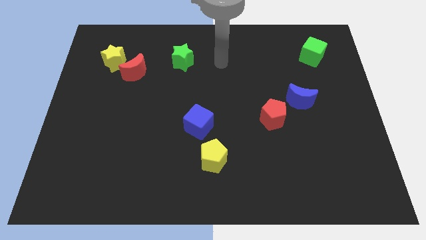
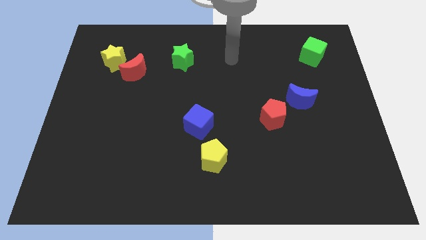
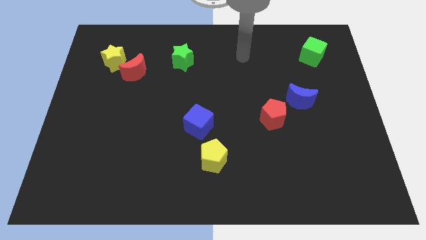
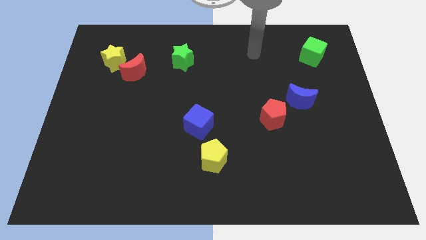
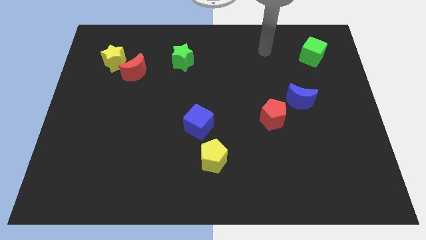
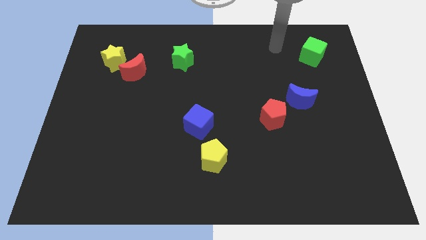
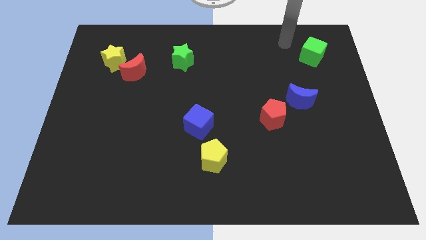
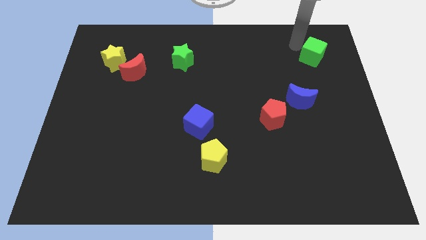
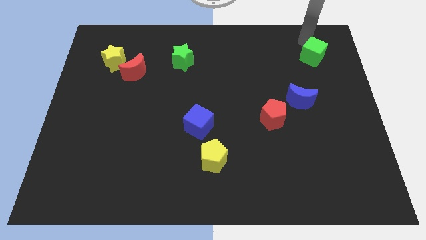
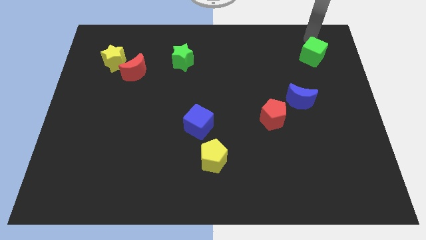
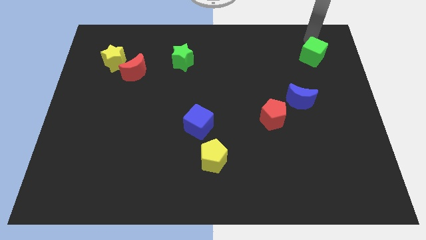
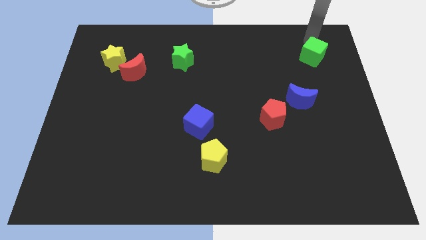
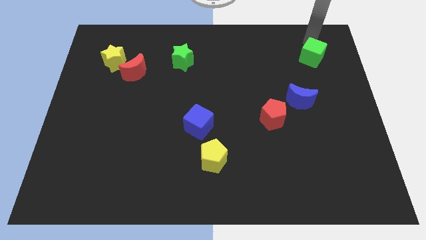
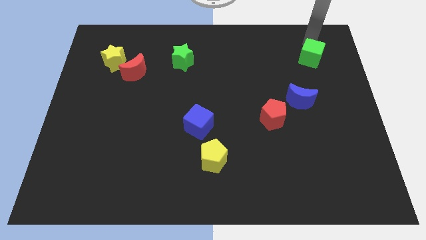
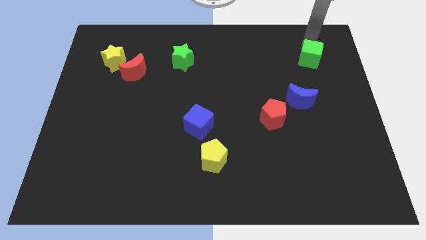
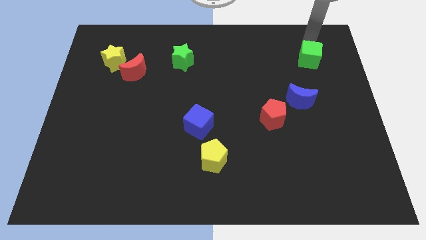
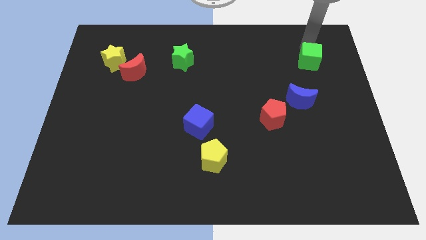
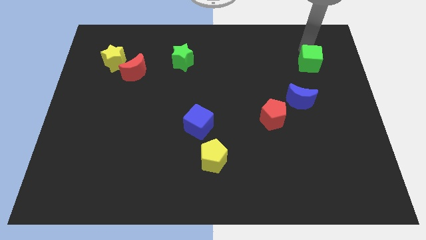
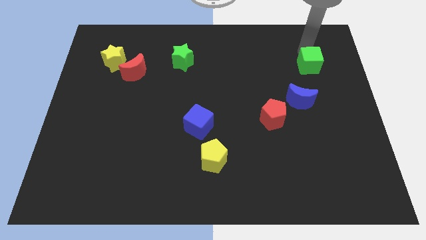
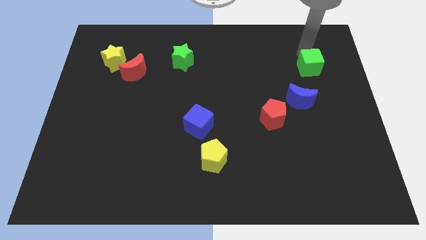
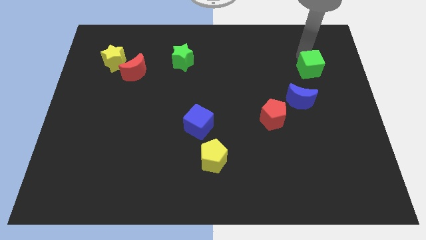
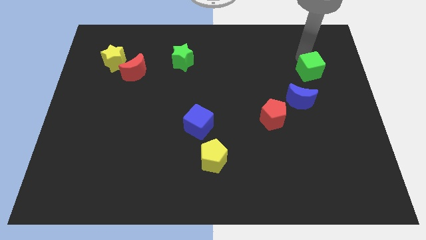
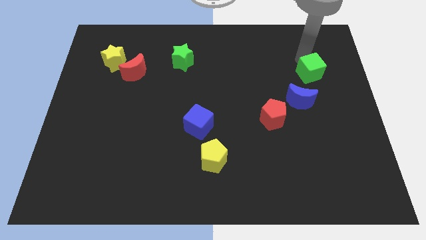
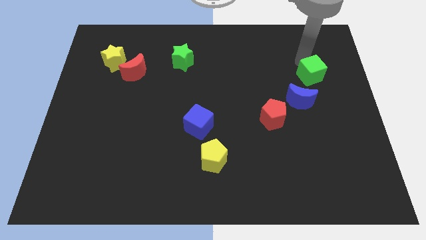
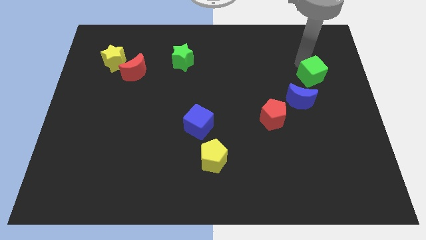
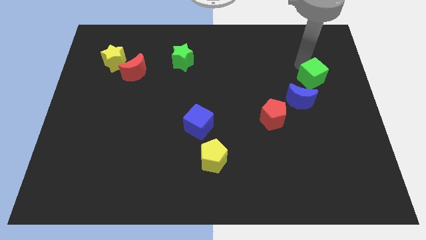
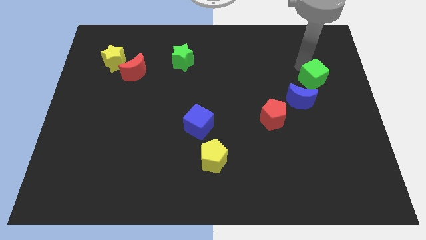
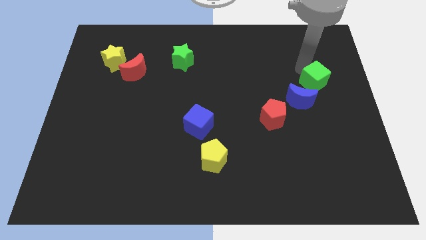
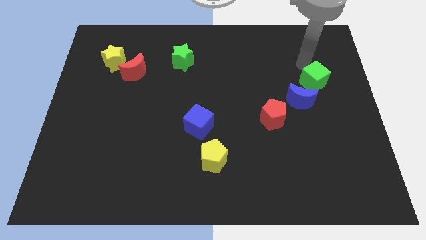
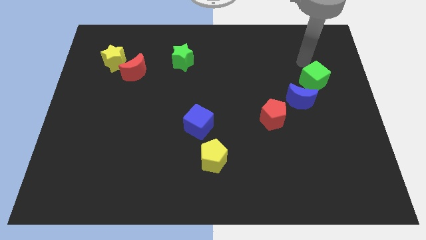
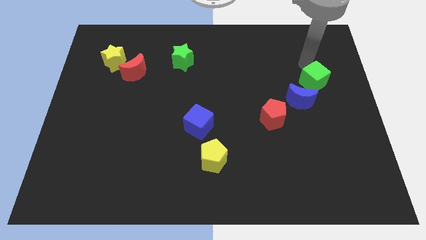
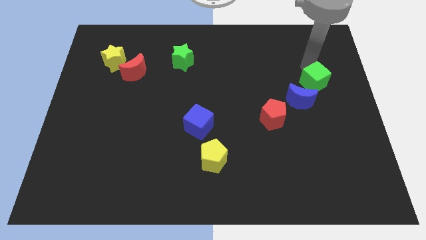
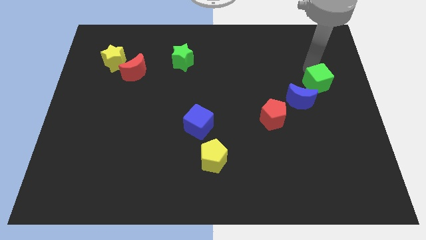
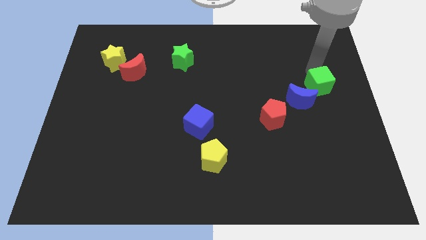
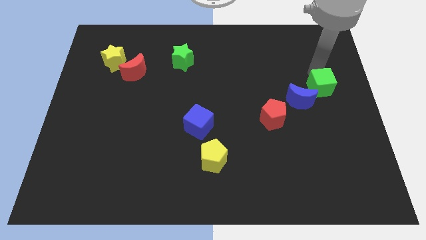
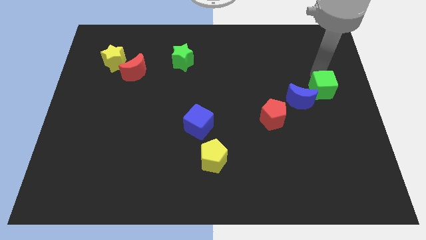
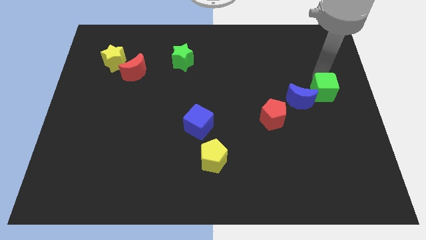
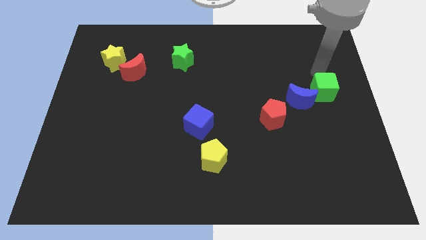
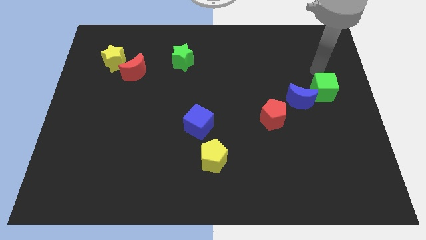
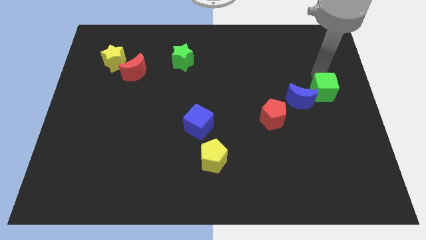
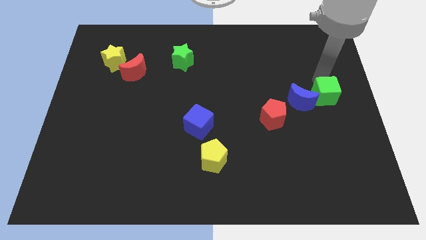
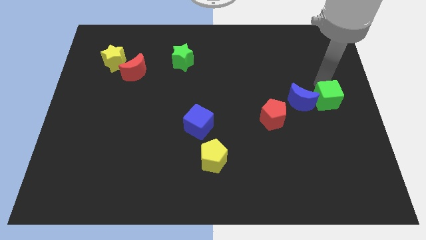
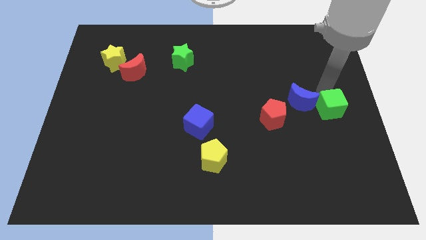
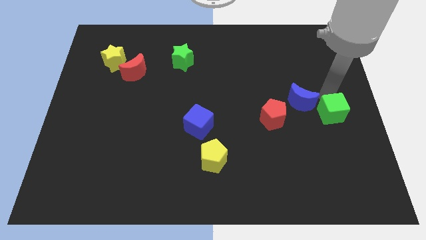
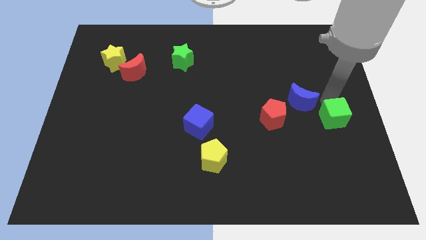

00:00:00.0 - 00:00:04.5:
move the green cube downwards

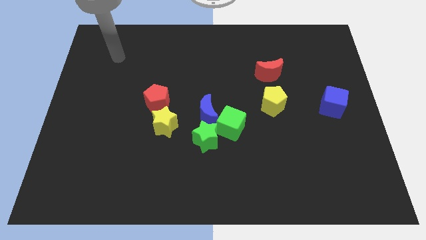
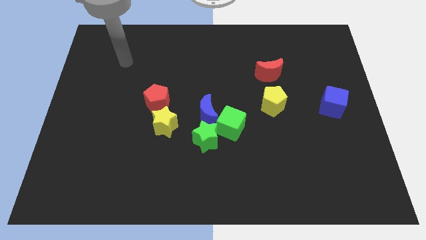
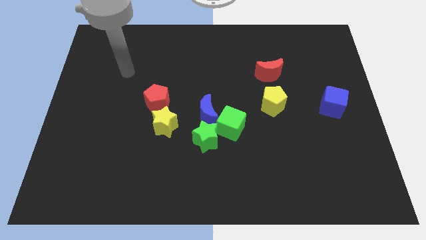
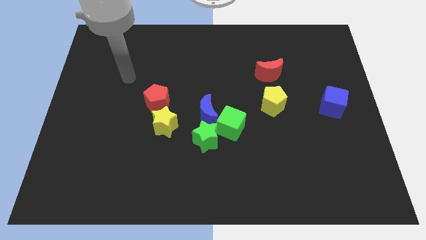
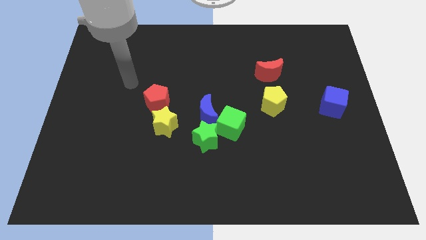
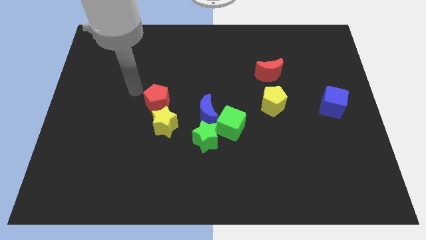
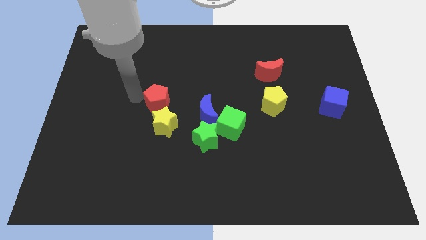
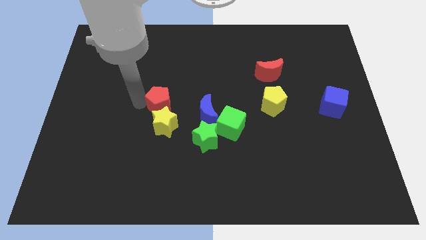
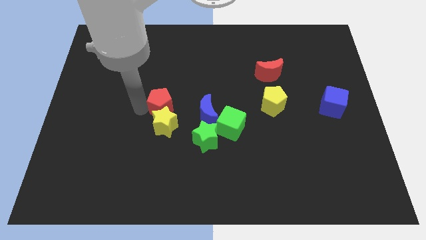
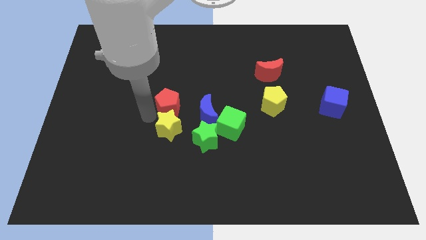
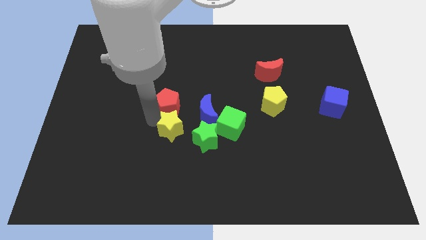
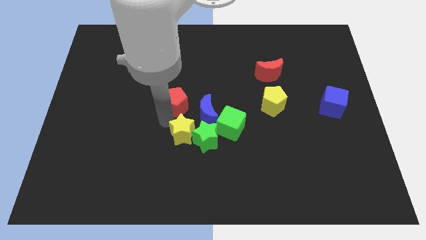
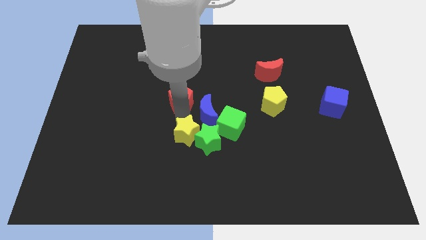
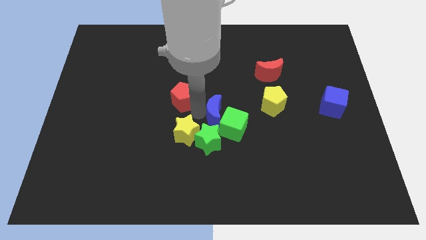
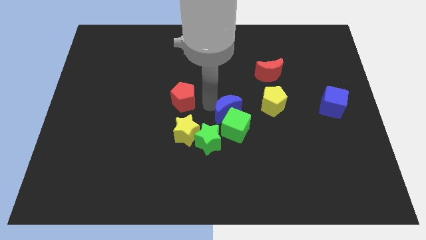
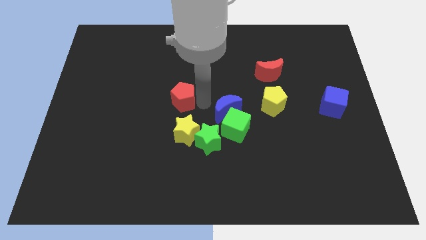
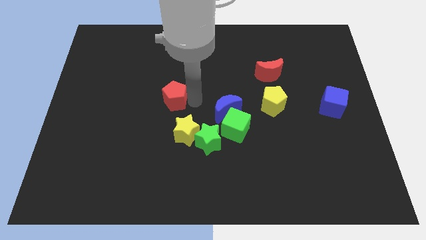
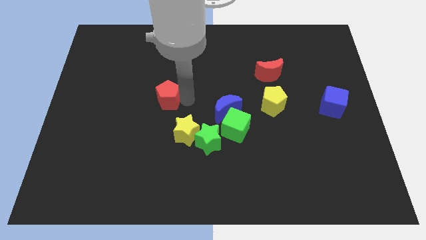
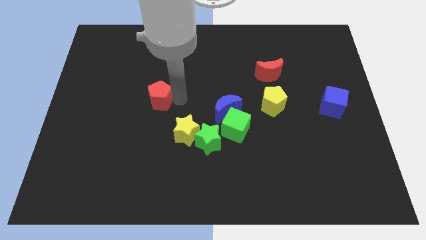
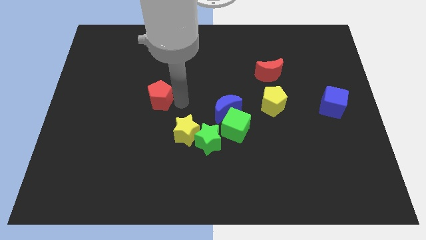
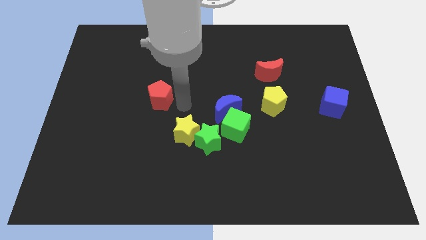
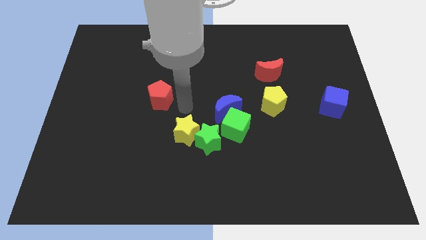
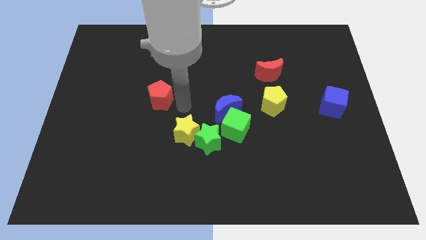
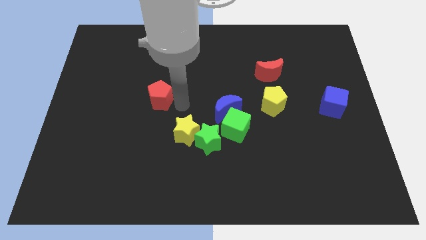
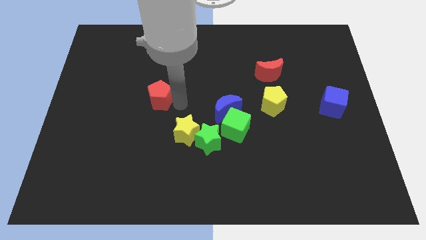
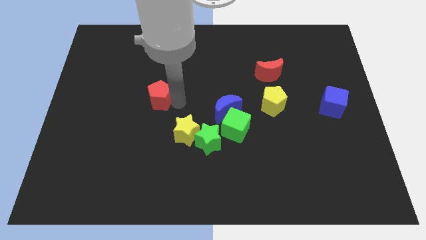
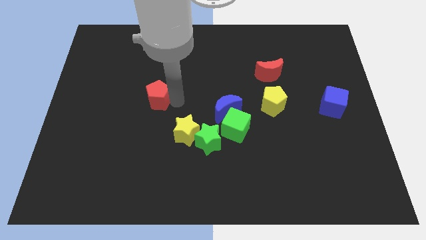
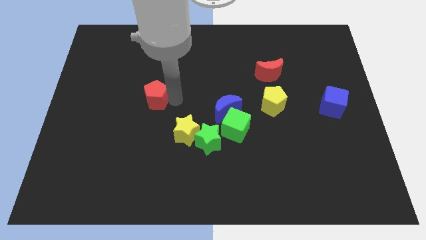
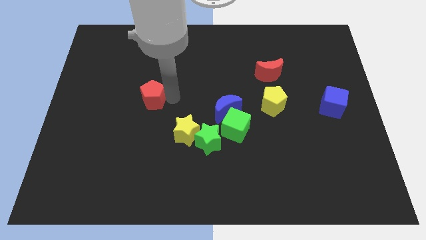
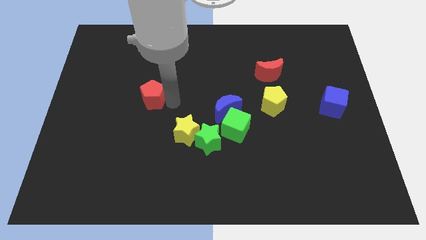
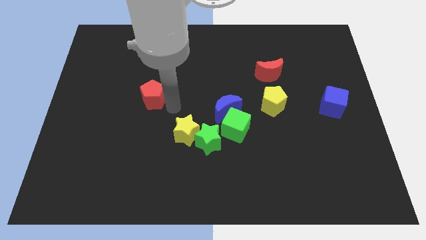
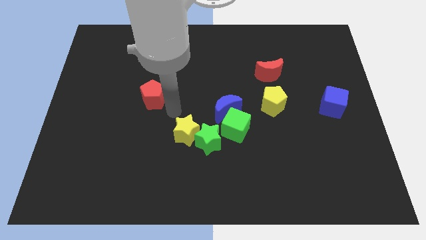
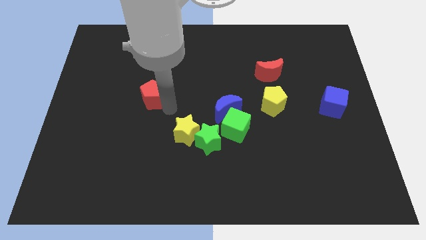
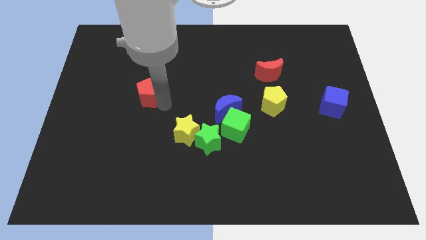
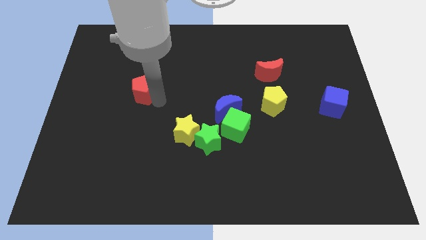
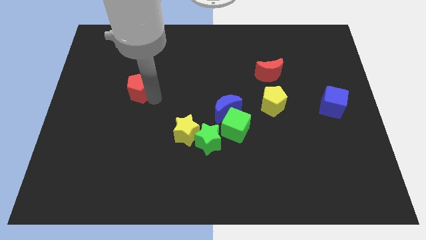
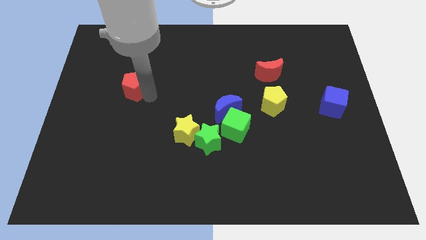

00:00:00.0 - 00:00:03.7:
slightly push the red pentagon up and then to the left

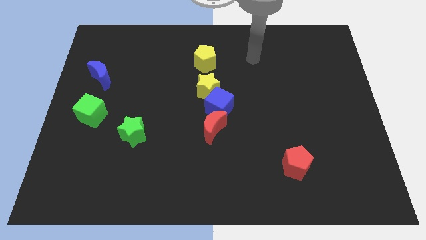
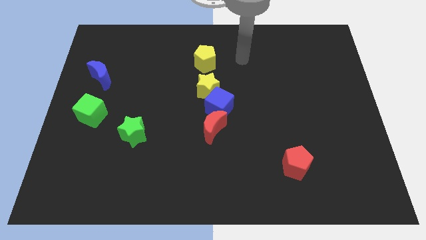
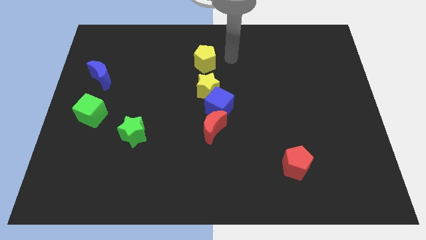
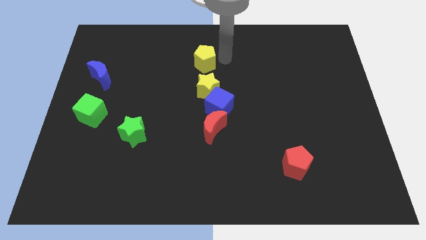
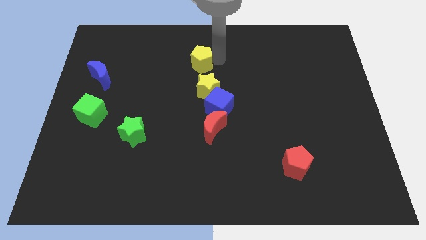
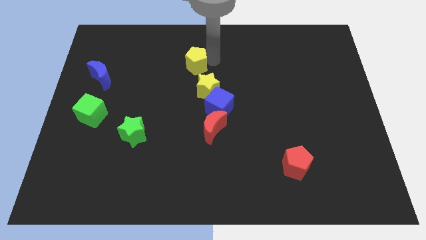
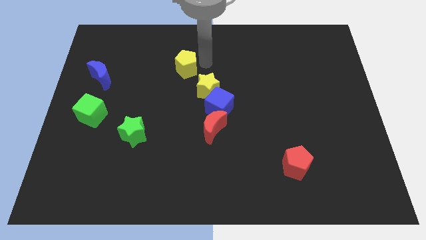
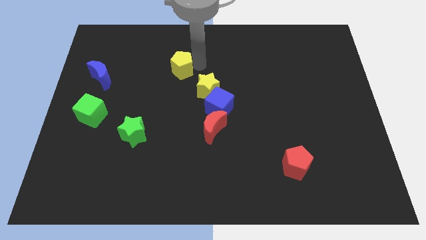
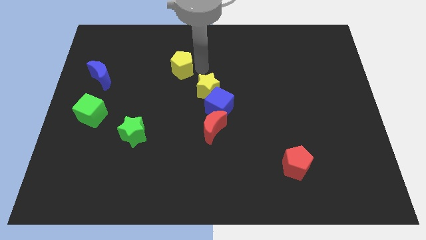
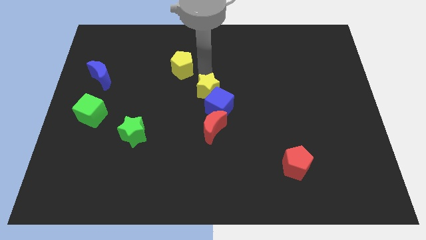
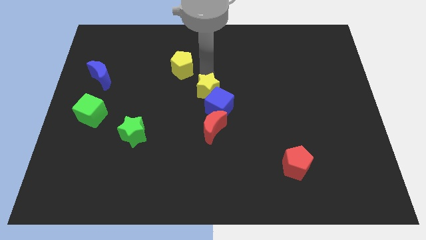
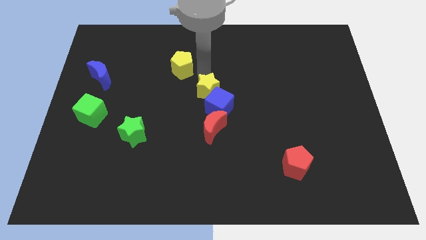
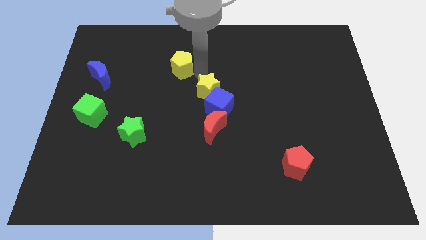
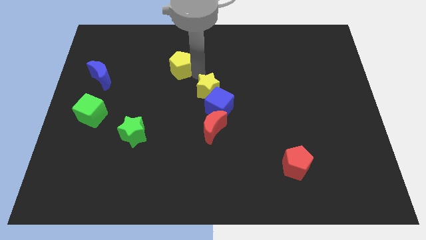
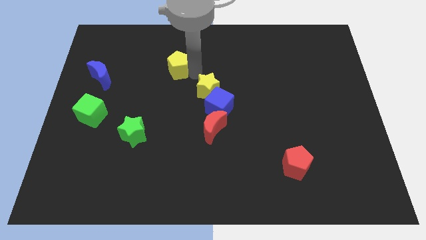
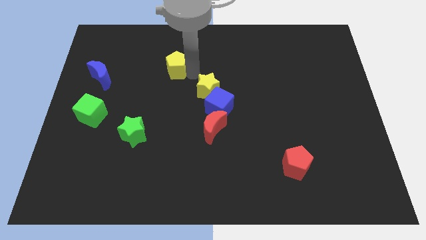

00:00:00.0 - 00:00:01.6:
slightly slide the yellow pentagon to the left
